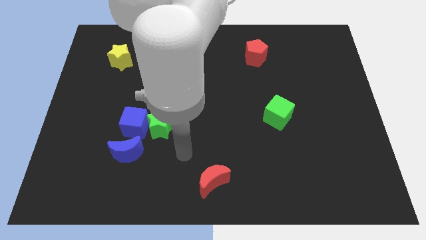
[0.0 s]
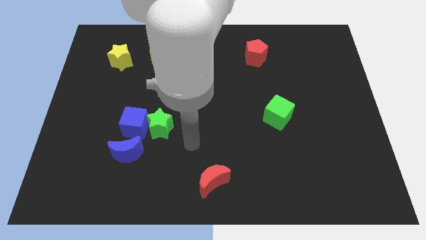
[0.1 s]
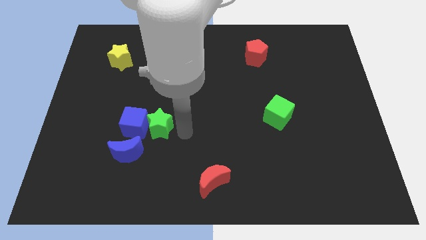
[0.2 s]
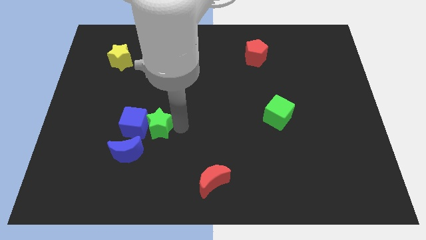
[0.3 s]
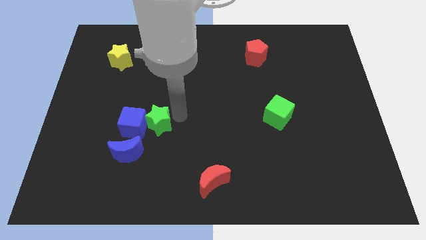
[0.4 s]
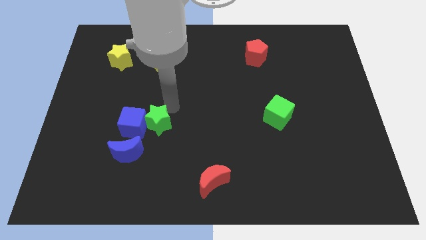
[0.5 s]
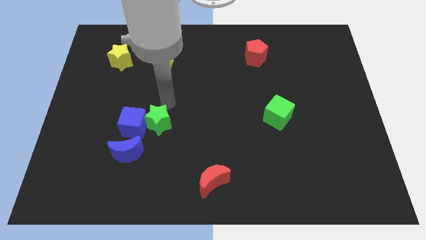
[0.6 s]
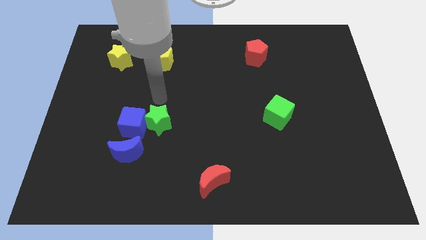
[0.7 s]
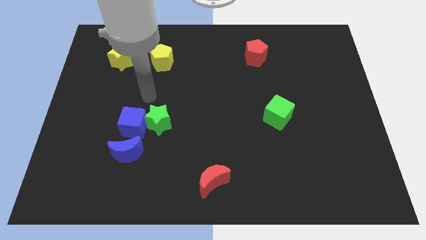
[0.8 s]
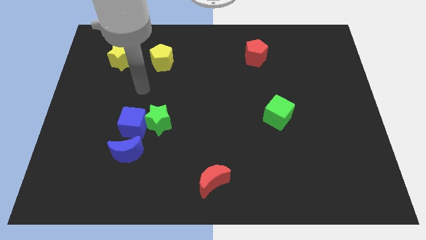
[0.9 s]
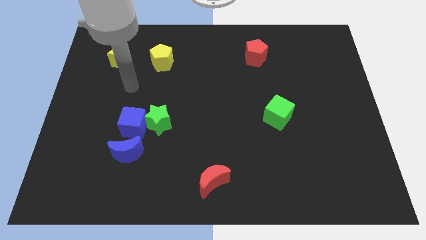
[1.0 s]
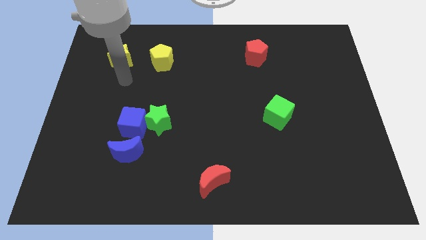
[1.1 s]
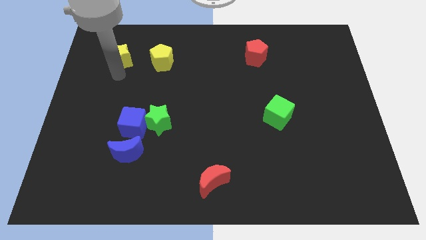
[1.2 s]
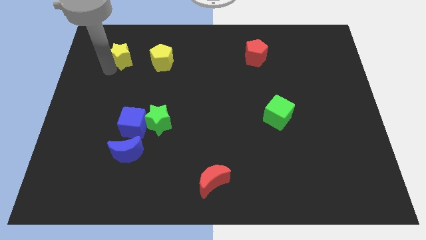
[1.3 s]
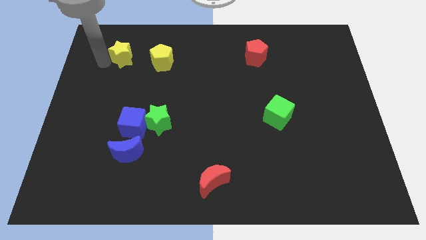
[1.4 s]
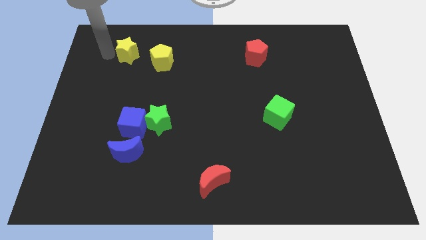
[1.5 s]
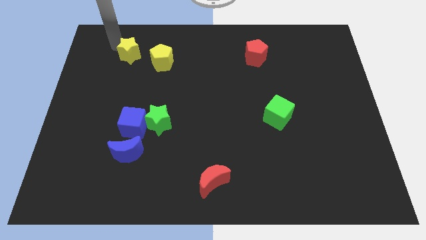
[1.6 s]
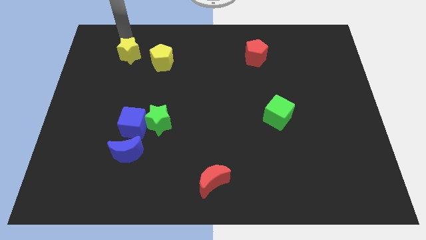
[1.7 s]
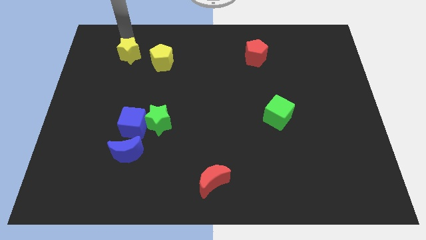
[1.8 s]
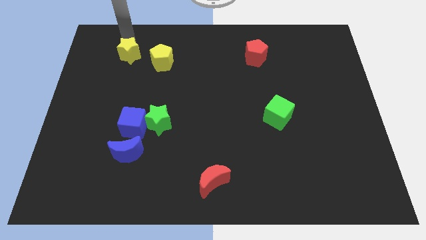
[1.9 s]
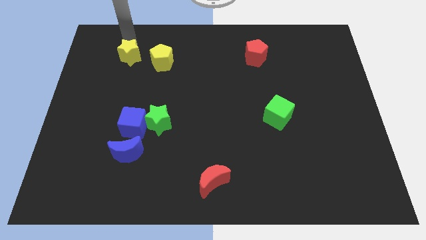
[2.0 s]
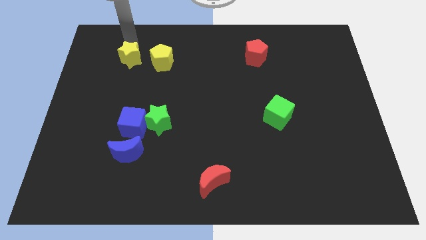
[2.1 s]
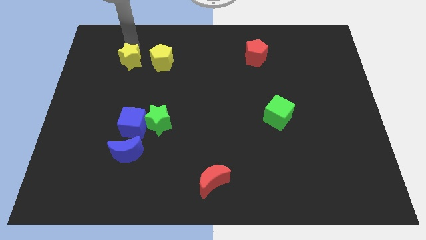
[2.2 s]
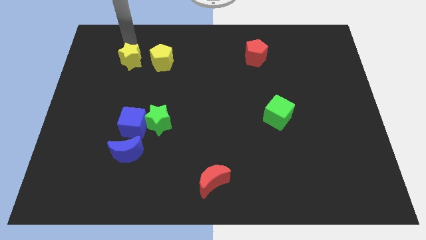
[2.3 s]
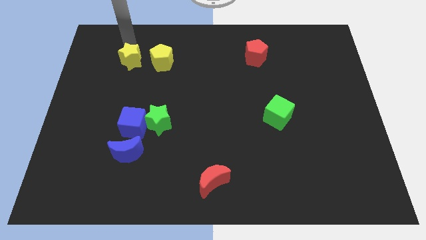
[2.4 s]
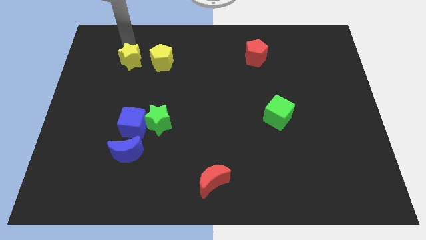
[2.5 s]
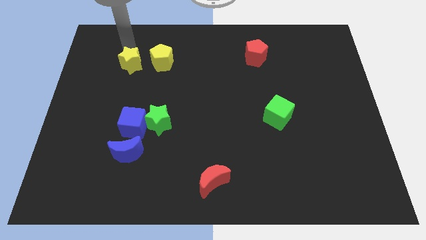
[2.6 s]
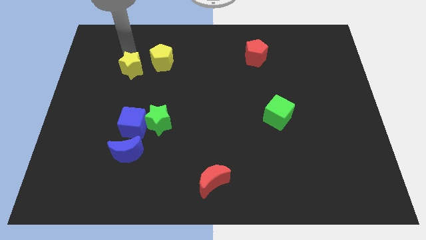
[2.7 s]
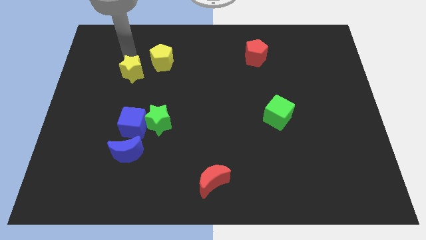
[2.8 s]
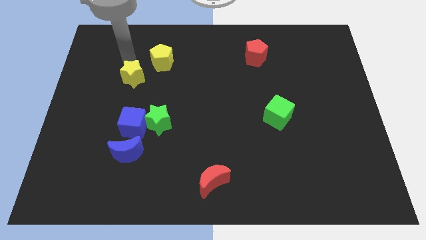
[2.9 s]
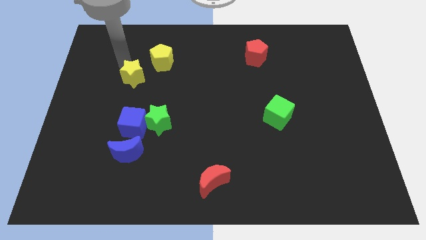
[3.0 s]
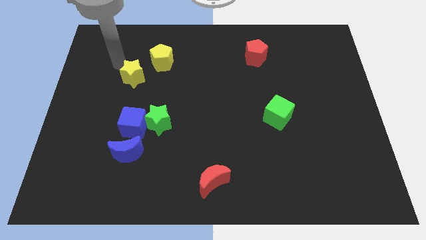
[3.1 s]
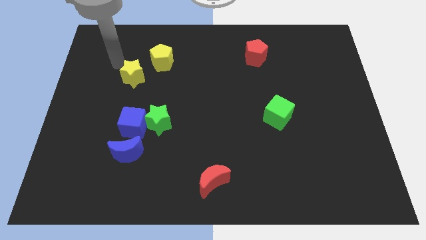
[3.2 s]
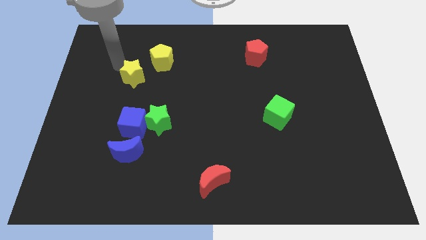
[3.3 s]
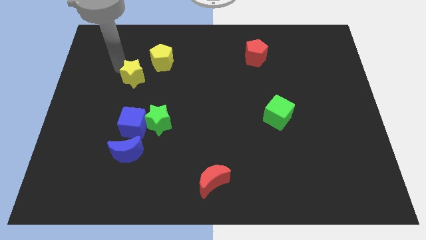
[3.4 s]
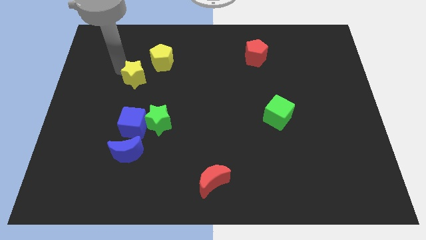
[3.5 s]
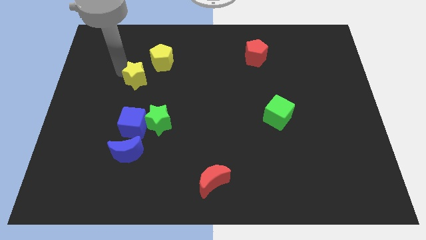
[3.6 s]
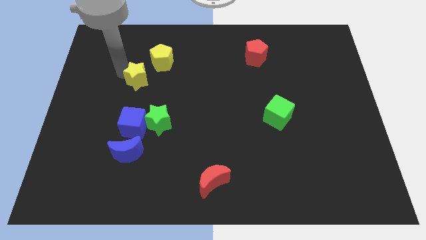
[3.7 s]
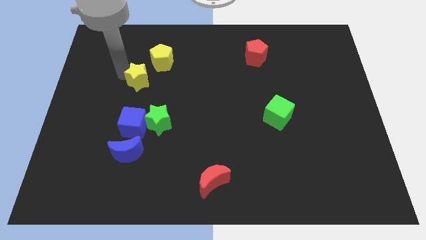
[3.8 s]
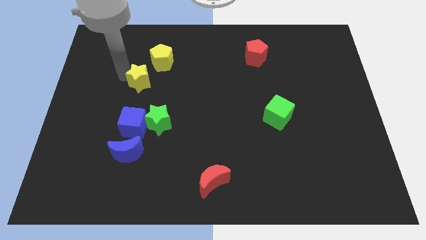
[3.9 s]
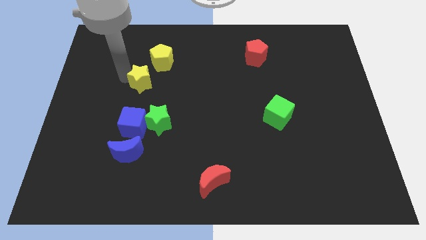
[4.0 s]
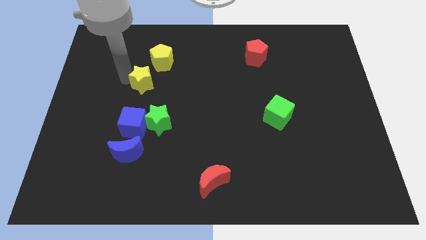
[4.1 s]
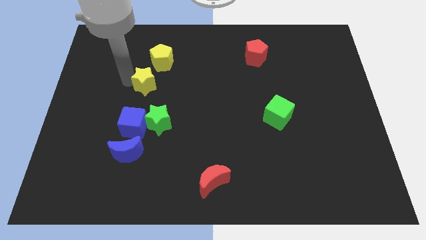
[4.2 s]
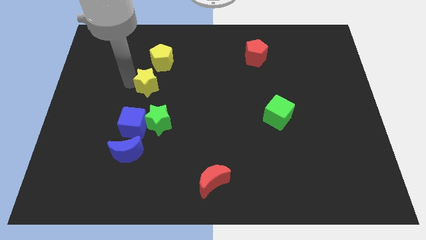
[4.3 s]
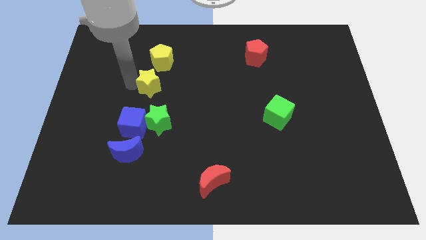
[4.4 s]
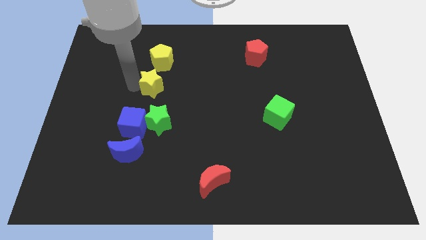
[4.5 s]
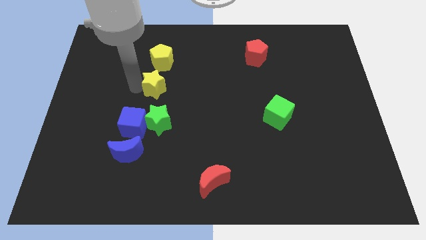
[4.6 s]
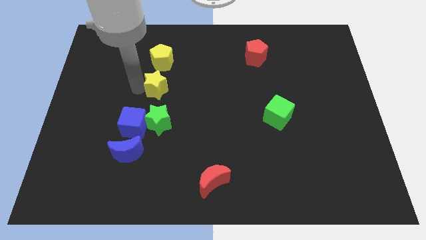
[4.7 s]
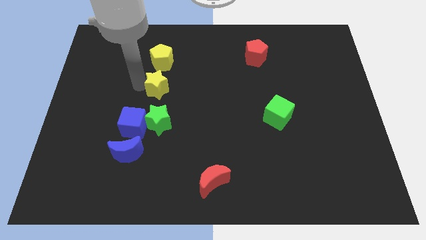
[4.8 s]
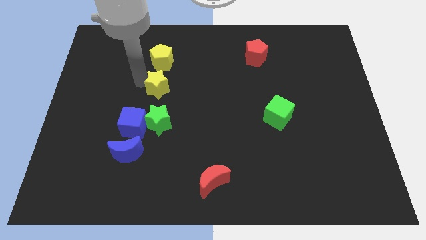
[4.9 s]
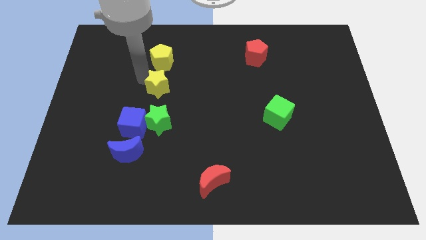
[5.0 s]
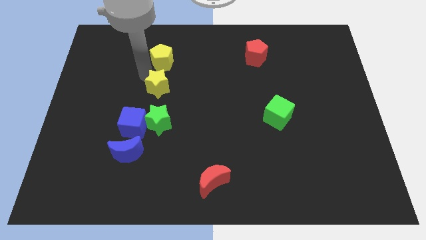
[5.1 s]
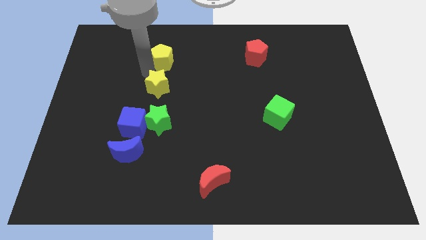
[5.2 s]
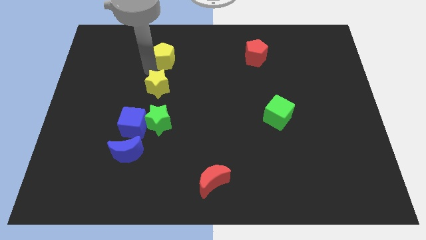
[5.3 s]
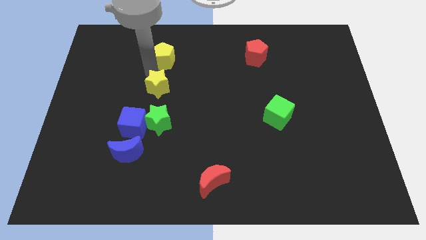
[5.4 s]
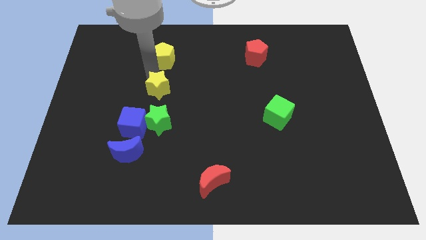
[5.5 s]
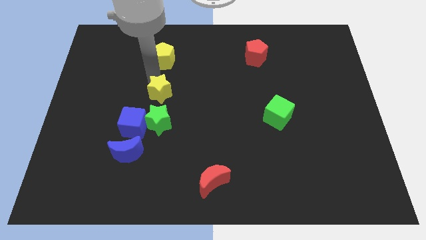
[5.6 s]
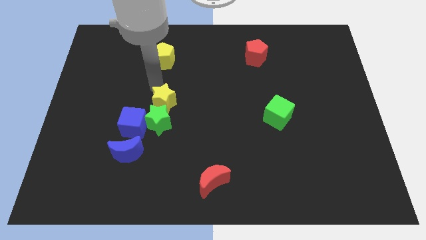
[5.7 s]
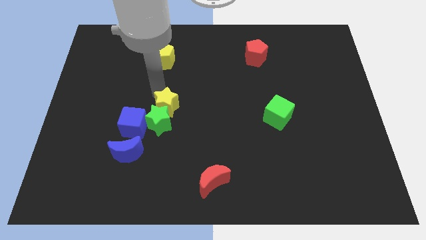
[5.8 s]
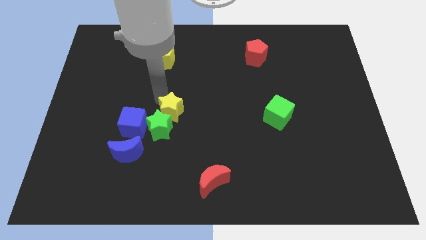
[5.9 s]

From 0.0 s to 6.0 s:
slide the yellow star just right of the blue cube

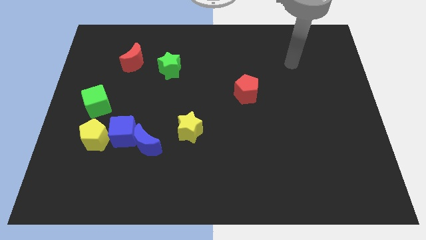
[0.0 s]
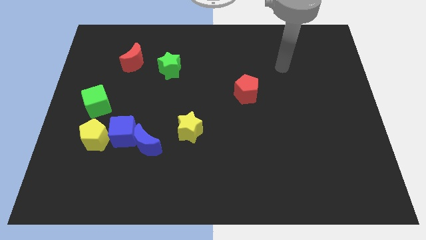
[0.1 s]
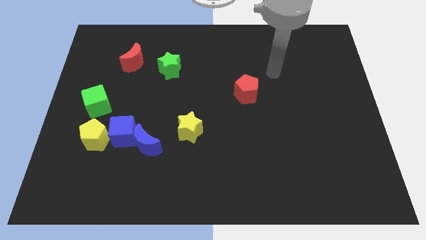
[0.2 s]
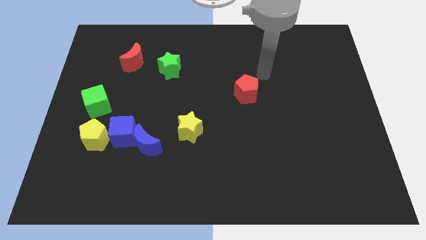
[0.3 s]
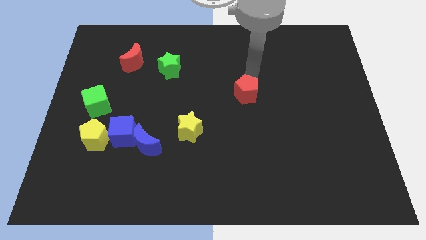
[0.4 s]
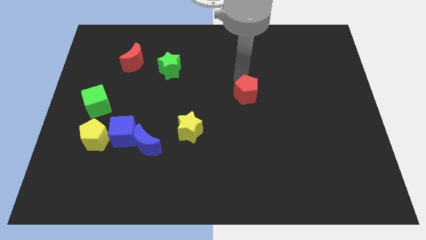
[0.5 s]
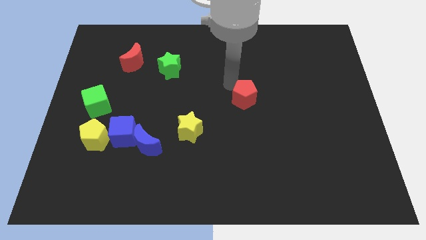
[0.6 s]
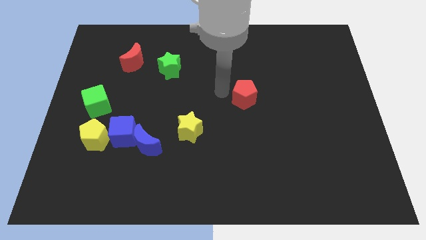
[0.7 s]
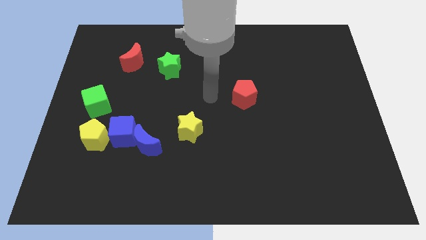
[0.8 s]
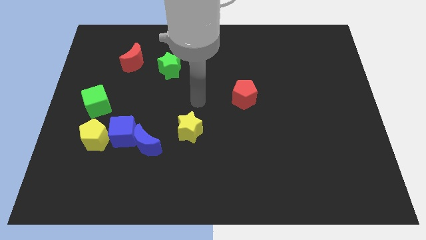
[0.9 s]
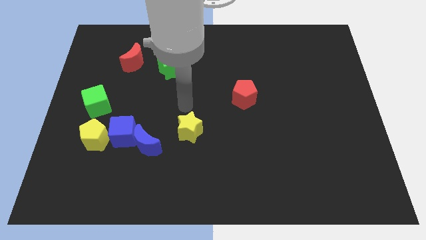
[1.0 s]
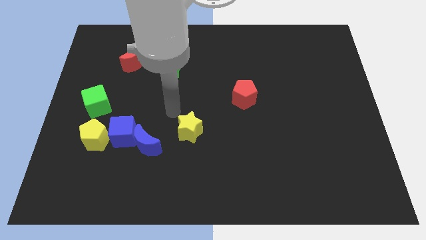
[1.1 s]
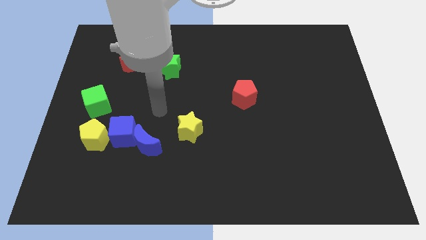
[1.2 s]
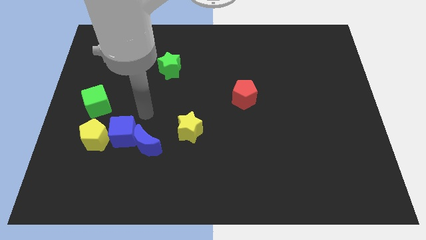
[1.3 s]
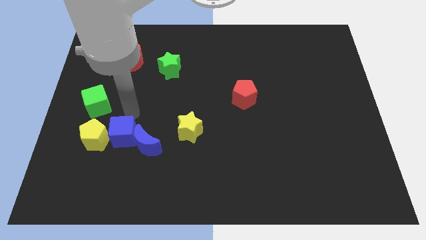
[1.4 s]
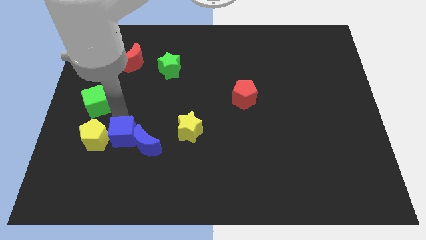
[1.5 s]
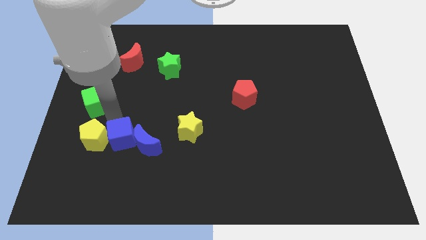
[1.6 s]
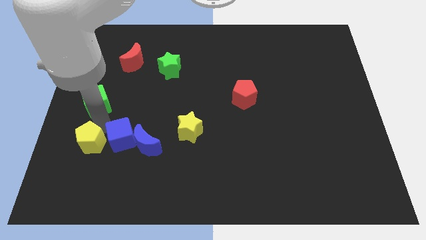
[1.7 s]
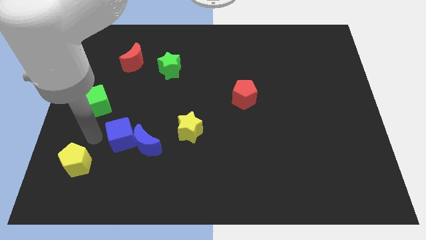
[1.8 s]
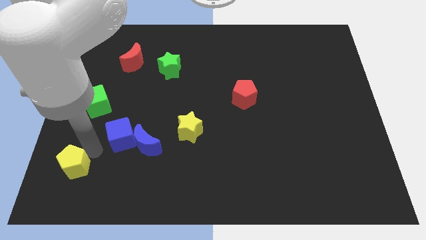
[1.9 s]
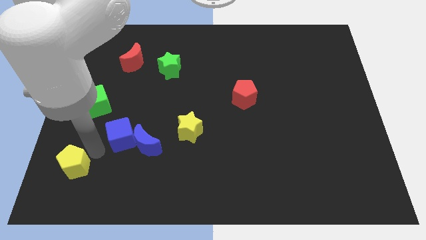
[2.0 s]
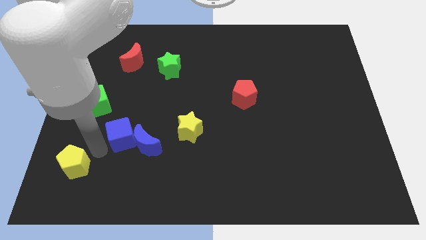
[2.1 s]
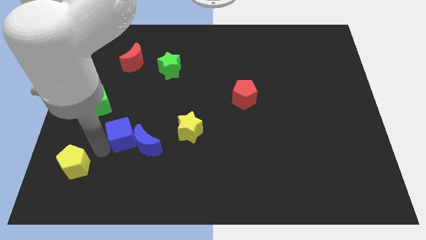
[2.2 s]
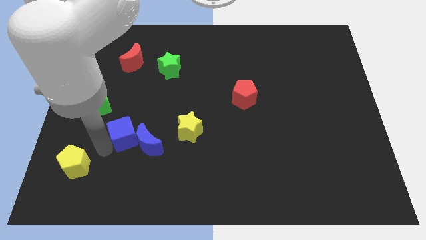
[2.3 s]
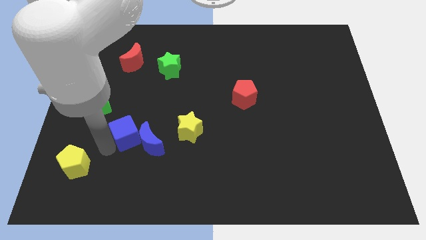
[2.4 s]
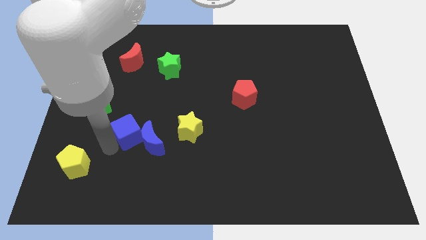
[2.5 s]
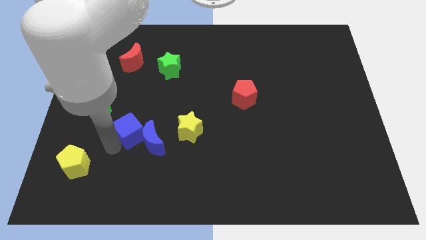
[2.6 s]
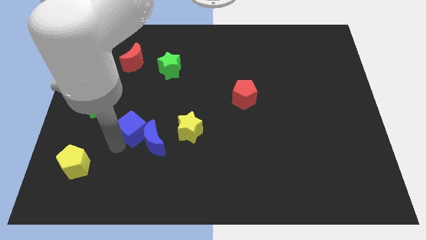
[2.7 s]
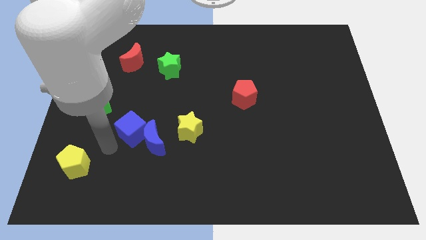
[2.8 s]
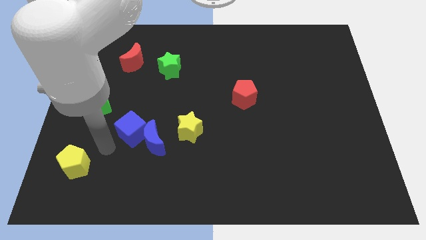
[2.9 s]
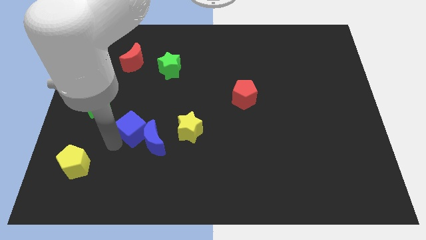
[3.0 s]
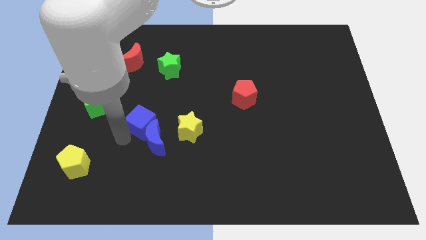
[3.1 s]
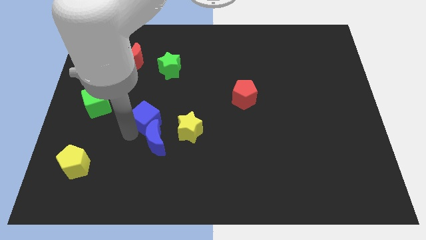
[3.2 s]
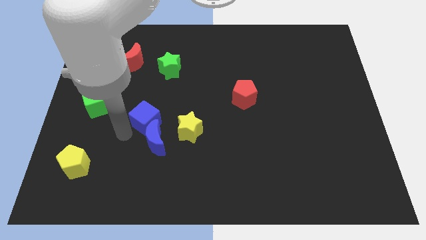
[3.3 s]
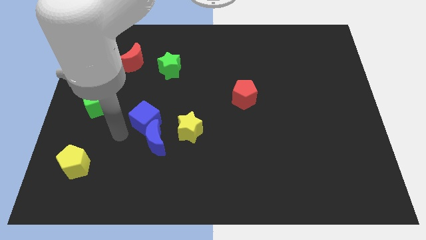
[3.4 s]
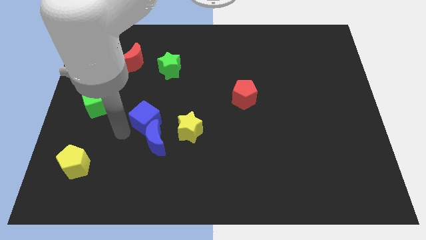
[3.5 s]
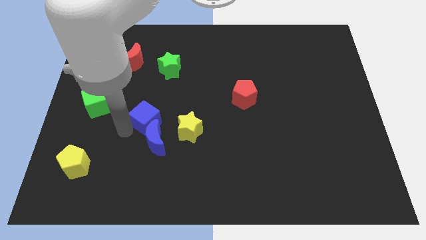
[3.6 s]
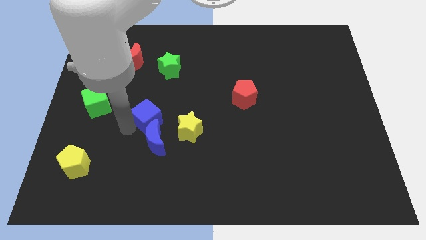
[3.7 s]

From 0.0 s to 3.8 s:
move the blue cube diagonally up and to the left of the yellow star
